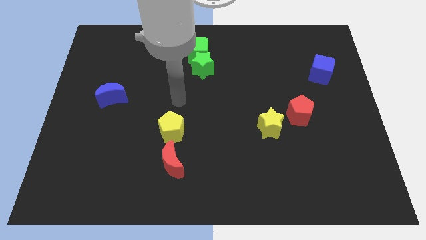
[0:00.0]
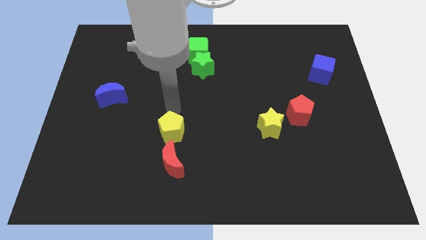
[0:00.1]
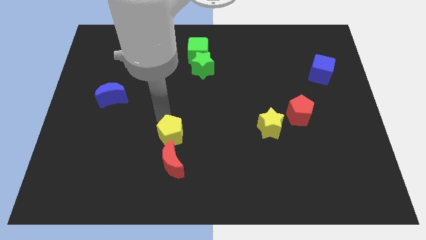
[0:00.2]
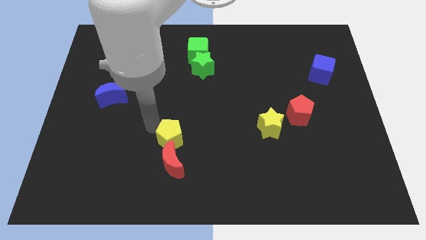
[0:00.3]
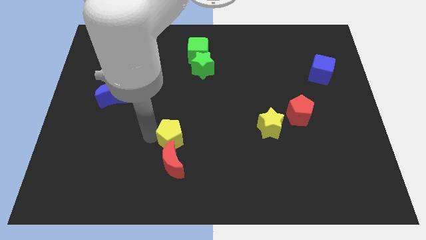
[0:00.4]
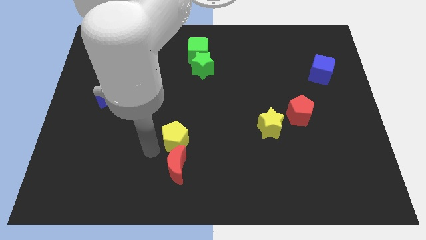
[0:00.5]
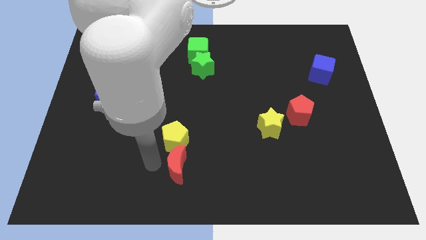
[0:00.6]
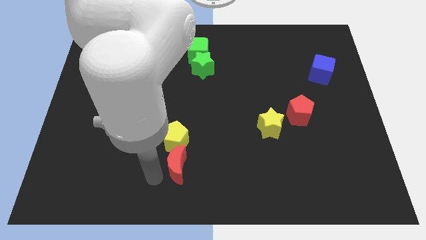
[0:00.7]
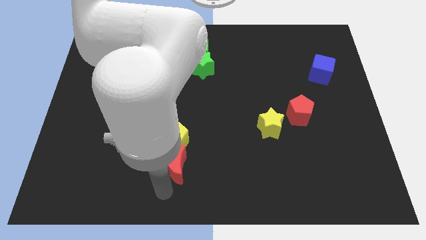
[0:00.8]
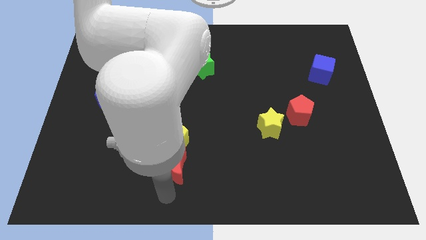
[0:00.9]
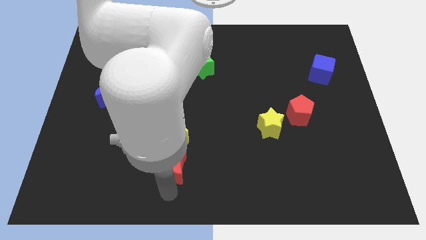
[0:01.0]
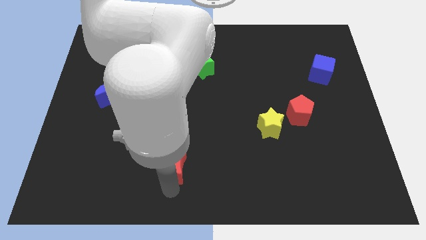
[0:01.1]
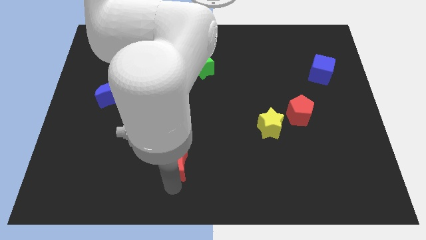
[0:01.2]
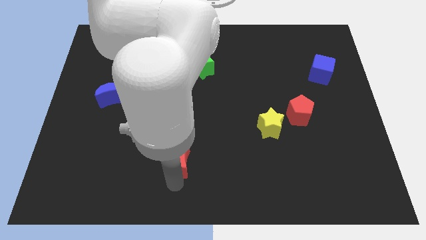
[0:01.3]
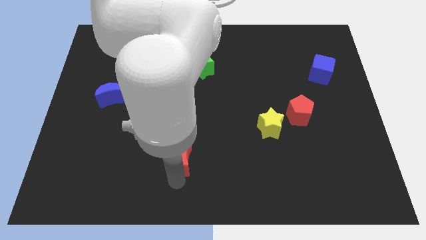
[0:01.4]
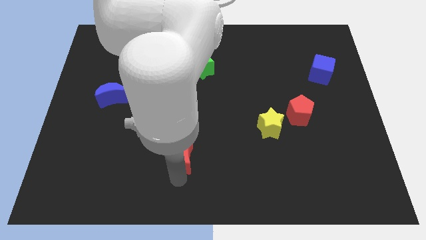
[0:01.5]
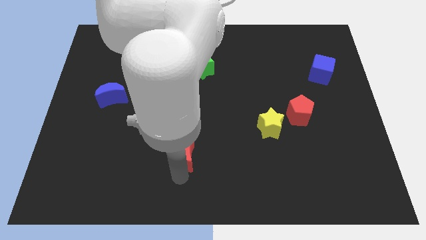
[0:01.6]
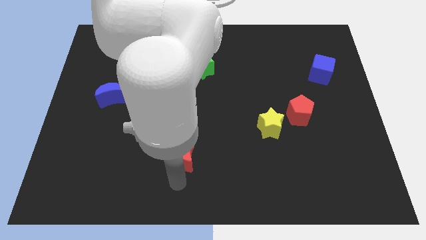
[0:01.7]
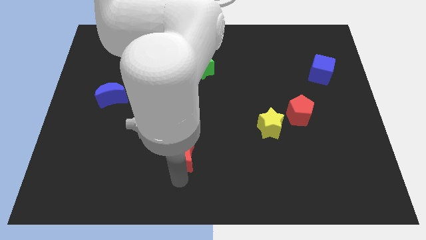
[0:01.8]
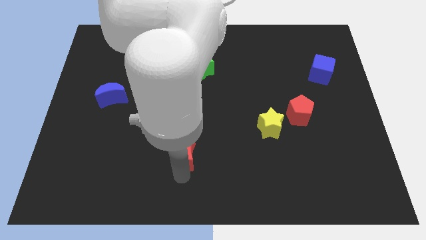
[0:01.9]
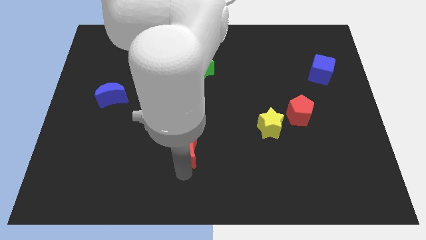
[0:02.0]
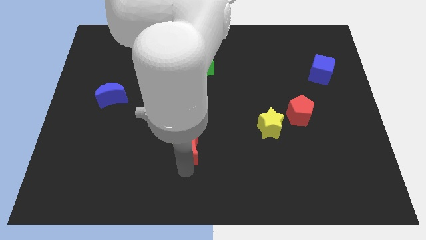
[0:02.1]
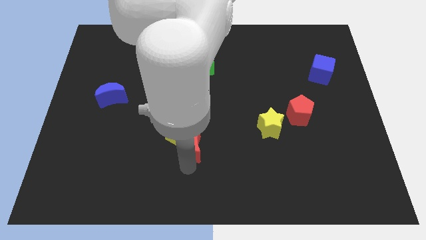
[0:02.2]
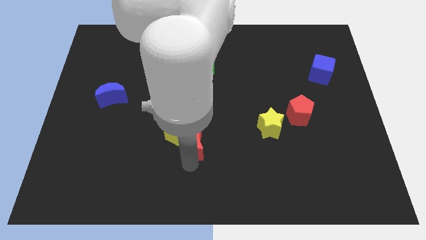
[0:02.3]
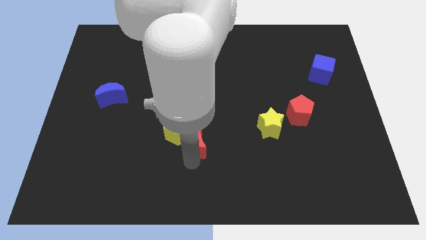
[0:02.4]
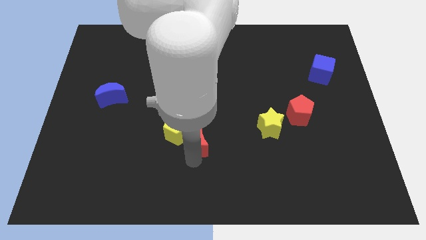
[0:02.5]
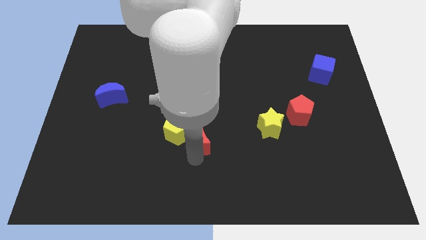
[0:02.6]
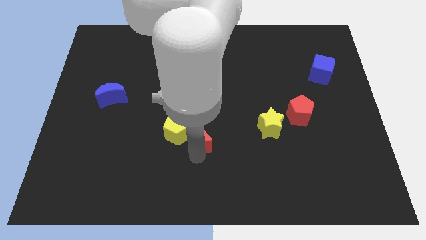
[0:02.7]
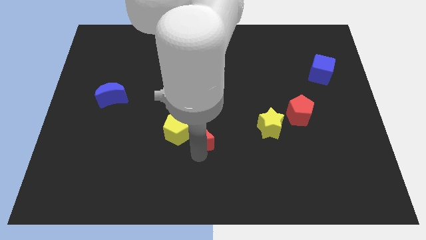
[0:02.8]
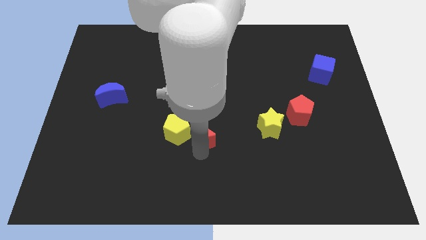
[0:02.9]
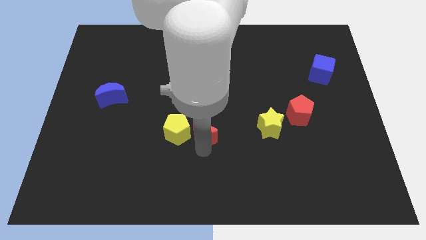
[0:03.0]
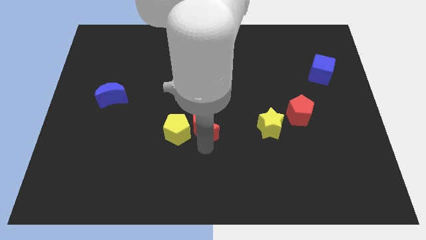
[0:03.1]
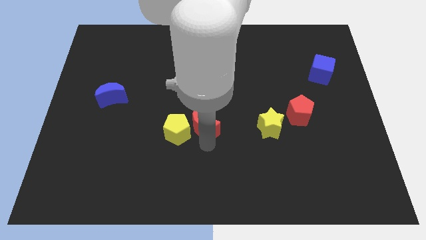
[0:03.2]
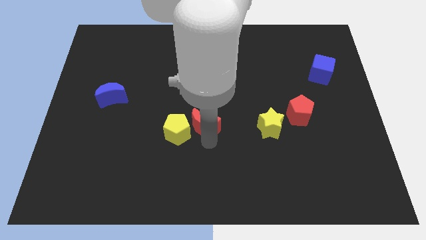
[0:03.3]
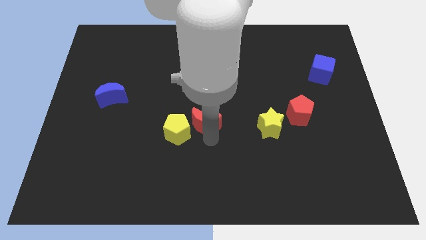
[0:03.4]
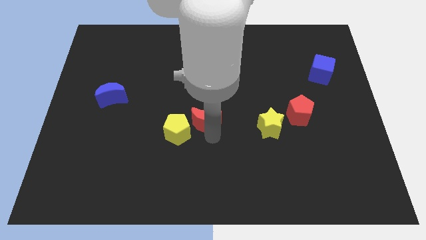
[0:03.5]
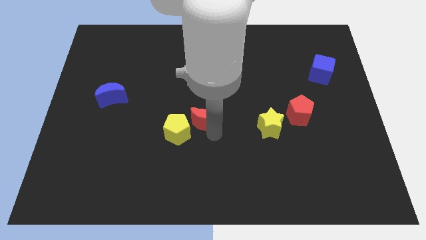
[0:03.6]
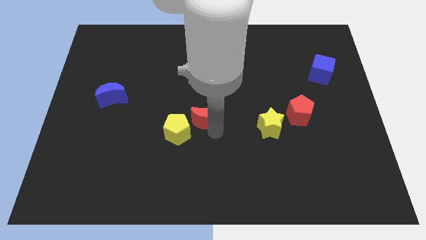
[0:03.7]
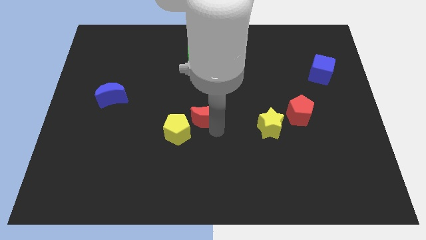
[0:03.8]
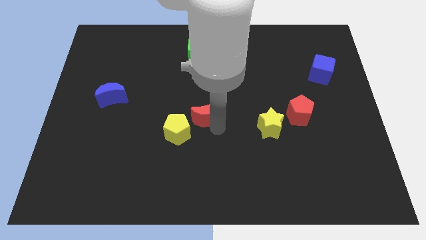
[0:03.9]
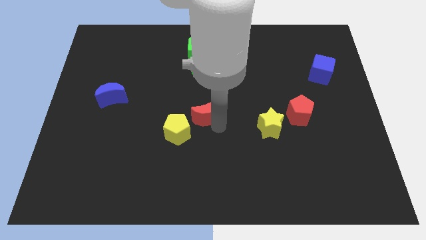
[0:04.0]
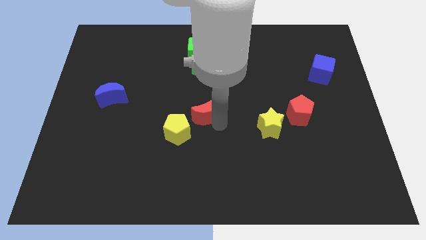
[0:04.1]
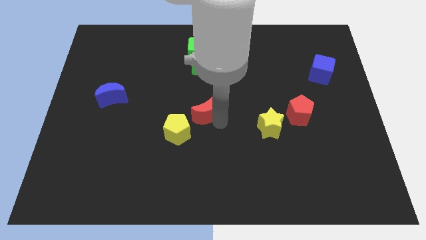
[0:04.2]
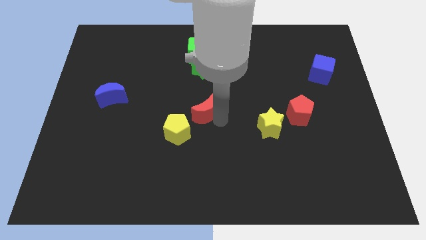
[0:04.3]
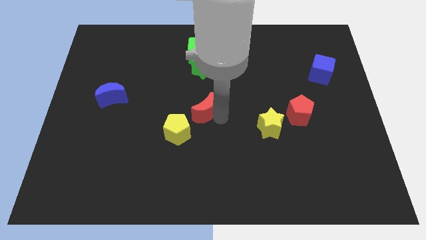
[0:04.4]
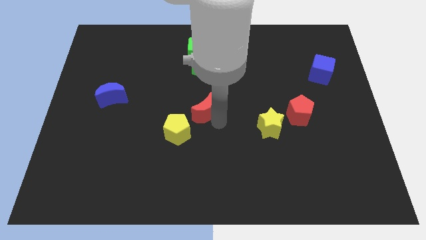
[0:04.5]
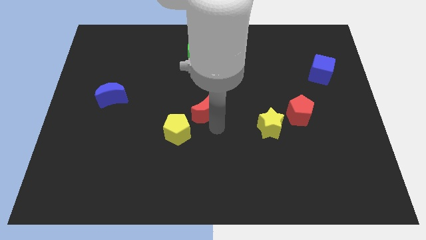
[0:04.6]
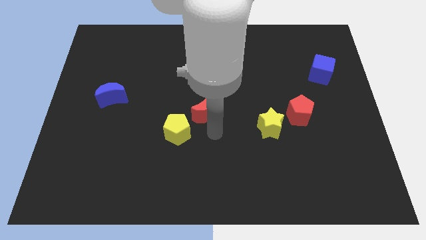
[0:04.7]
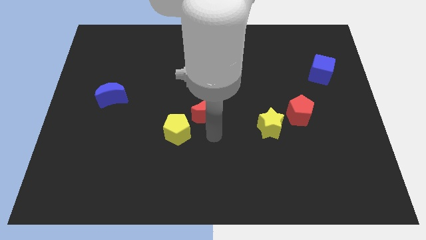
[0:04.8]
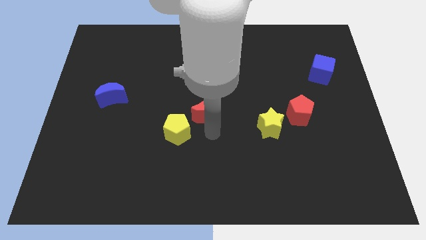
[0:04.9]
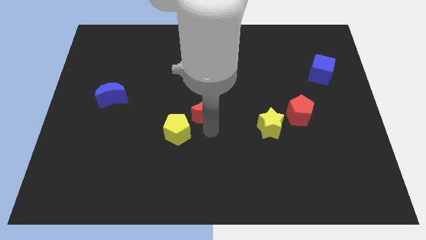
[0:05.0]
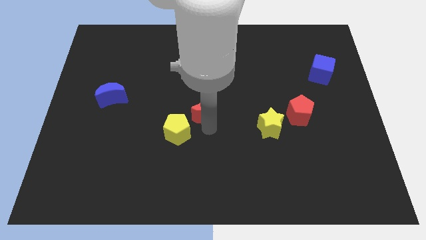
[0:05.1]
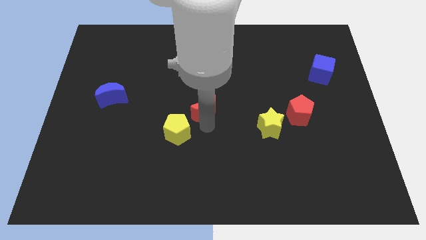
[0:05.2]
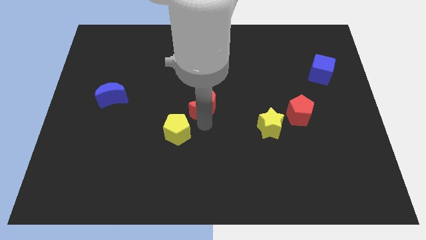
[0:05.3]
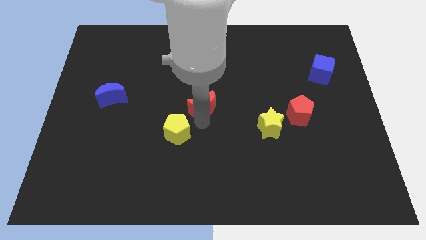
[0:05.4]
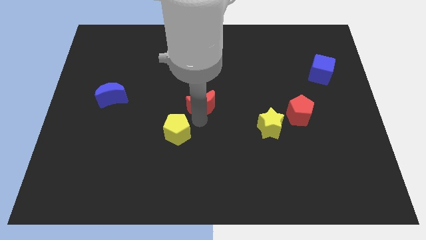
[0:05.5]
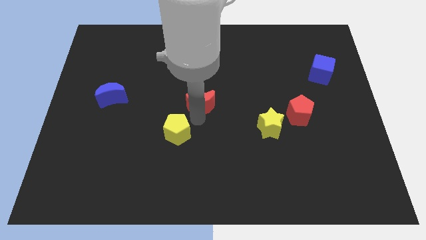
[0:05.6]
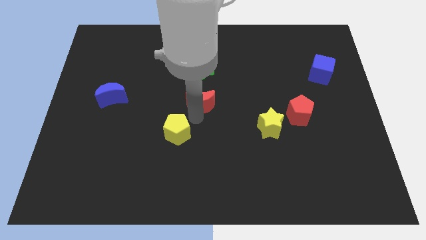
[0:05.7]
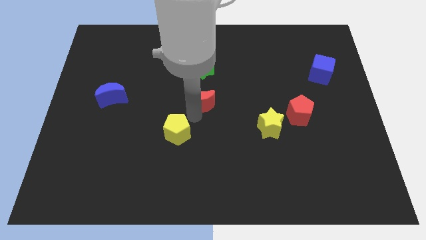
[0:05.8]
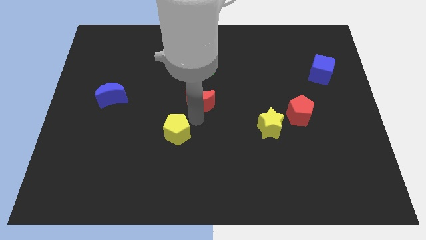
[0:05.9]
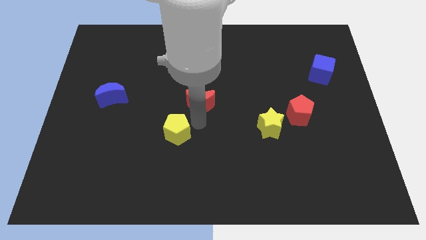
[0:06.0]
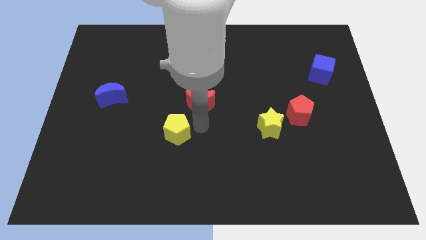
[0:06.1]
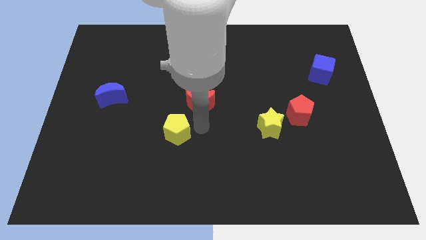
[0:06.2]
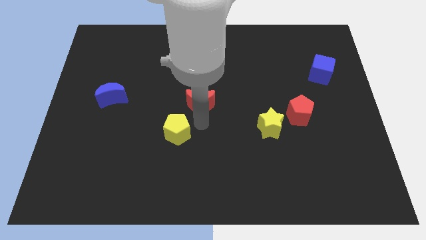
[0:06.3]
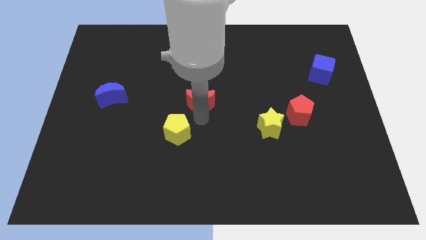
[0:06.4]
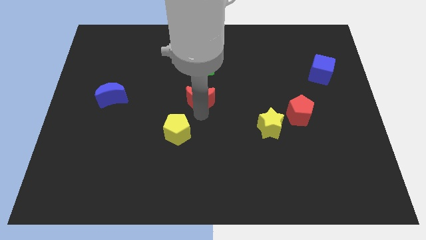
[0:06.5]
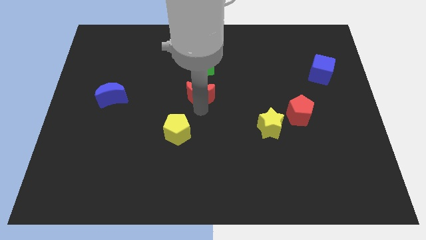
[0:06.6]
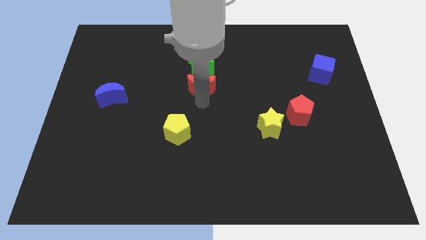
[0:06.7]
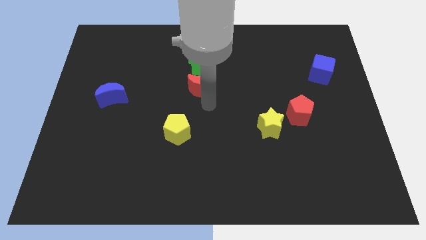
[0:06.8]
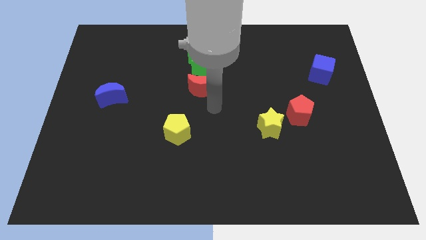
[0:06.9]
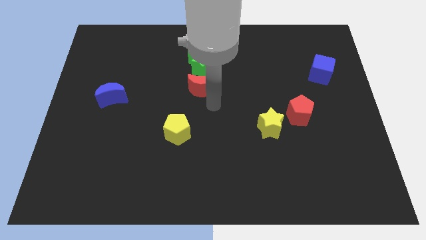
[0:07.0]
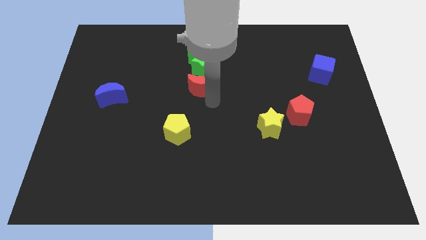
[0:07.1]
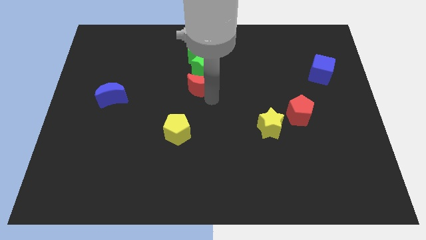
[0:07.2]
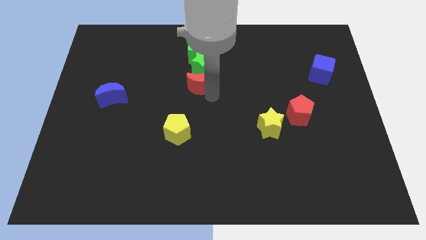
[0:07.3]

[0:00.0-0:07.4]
slide the red moon upwards

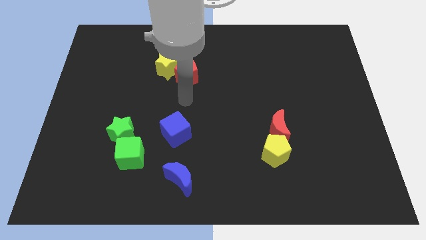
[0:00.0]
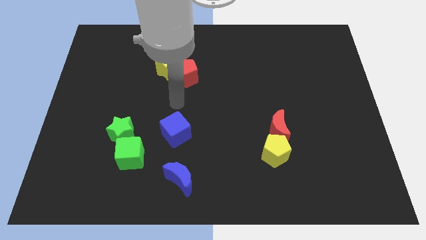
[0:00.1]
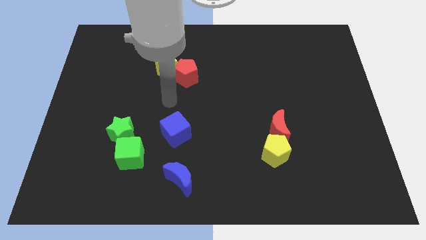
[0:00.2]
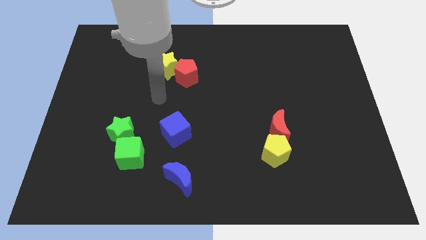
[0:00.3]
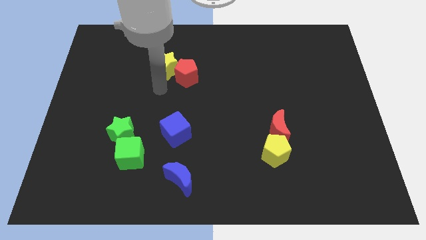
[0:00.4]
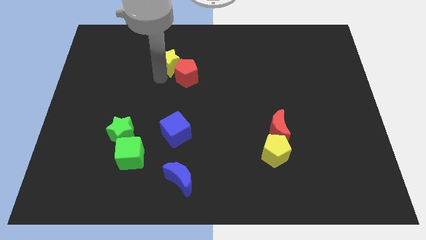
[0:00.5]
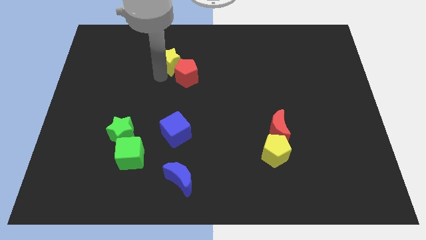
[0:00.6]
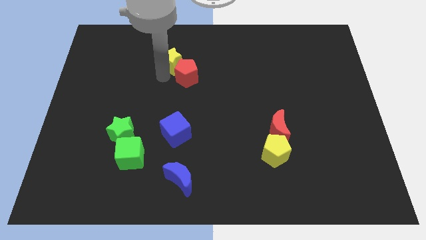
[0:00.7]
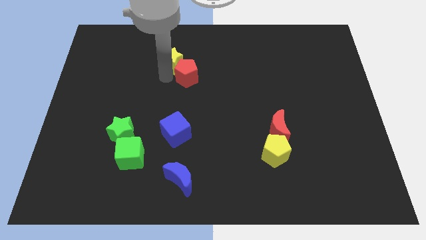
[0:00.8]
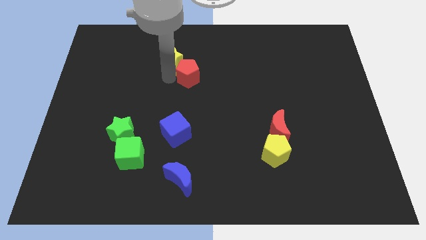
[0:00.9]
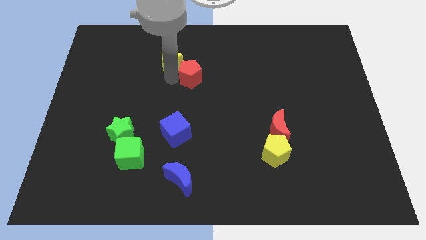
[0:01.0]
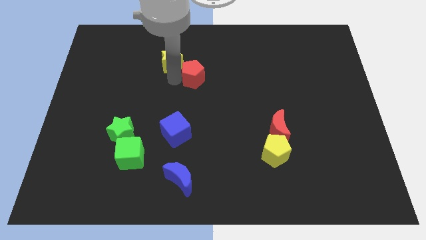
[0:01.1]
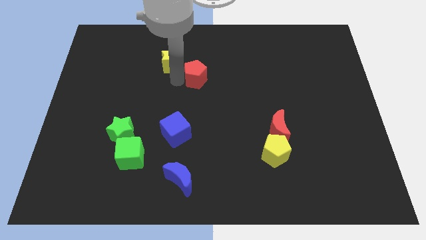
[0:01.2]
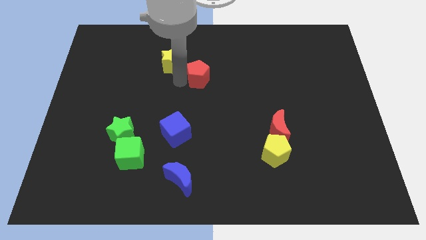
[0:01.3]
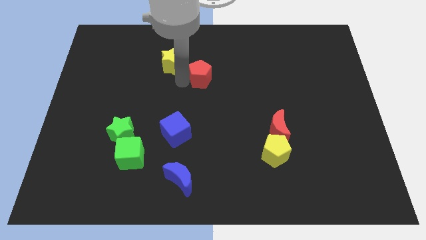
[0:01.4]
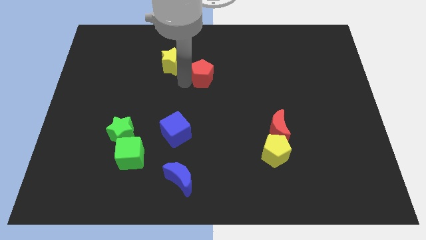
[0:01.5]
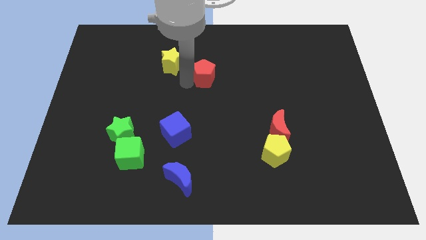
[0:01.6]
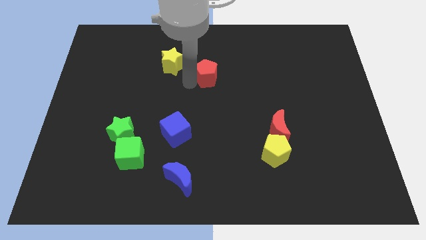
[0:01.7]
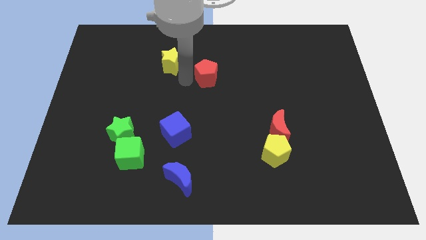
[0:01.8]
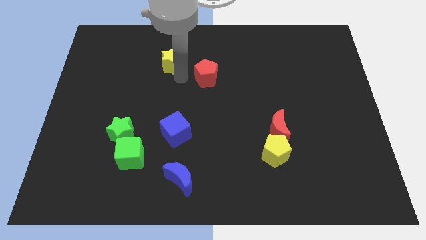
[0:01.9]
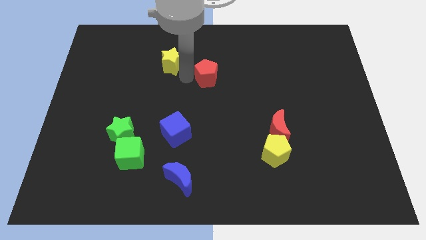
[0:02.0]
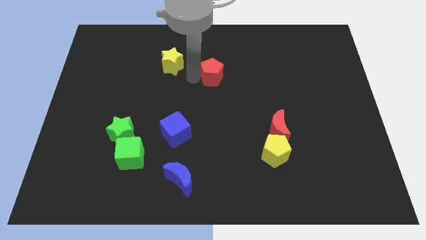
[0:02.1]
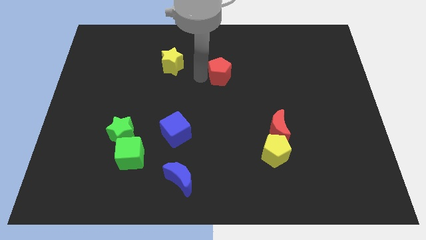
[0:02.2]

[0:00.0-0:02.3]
slide the red pentagon to the right a bit
